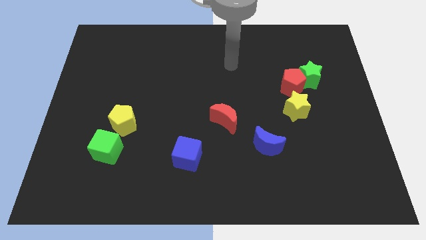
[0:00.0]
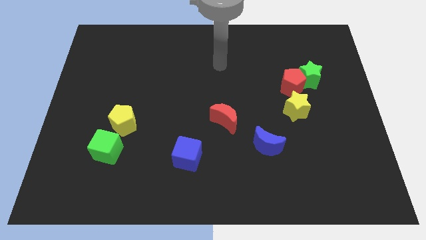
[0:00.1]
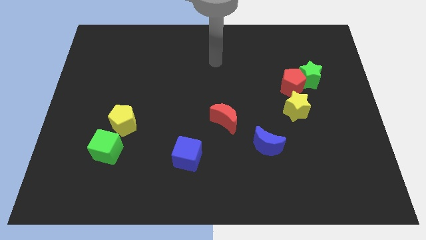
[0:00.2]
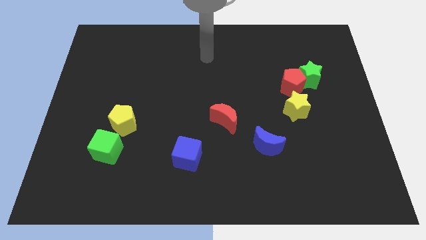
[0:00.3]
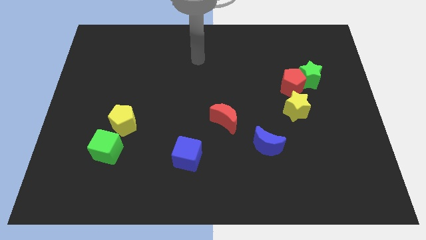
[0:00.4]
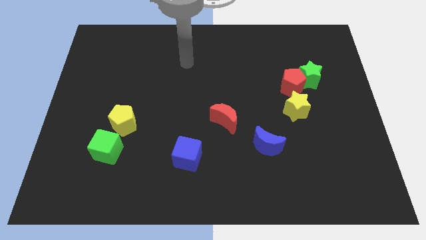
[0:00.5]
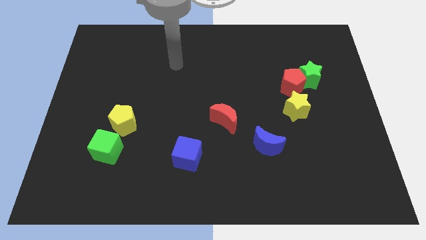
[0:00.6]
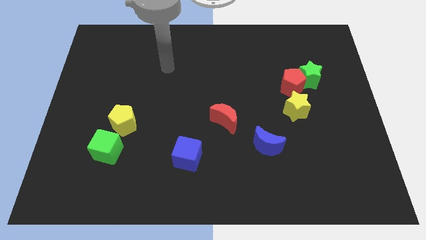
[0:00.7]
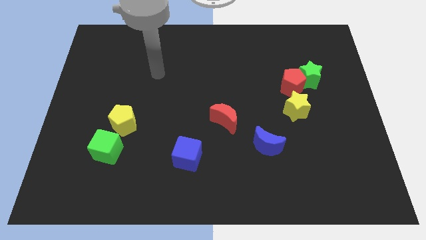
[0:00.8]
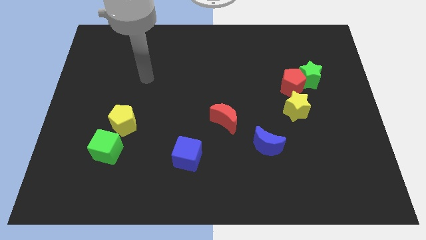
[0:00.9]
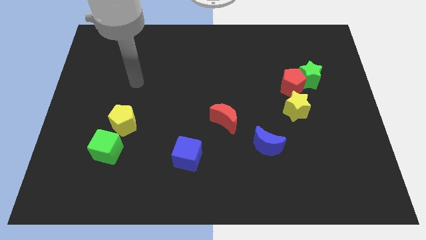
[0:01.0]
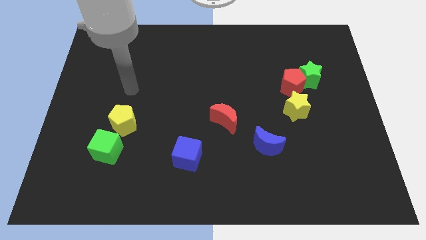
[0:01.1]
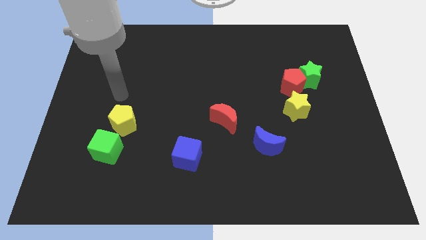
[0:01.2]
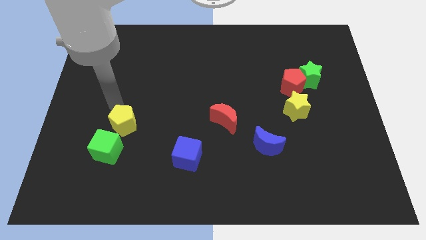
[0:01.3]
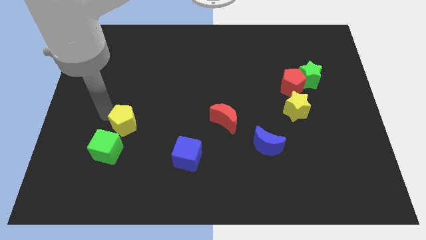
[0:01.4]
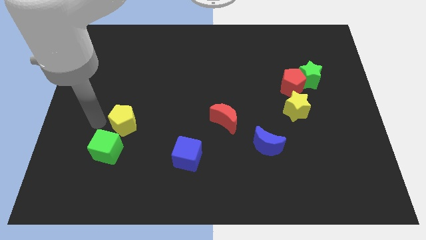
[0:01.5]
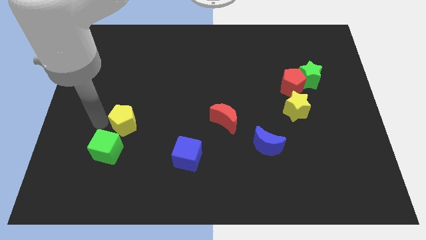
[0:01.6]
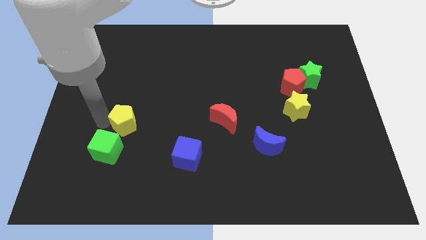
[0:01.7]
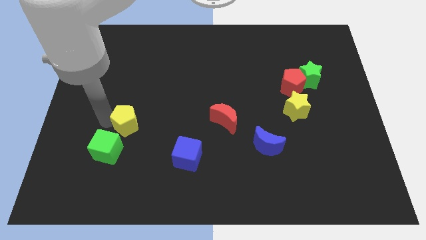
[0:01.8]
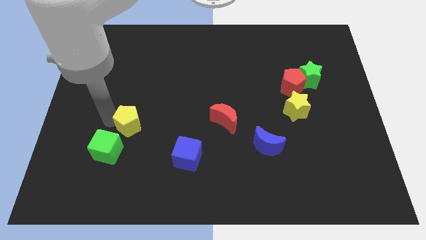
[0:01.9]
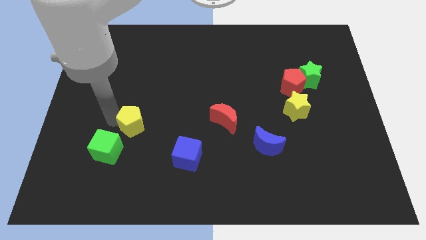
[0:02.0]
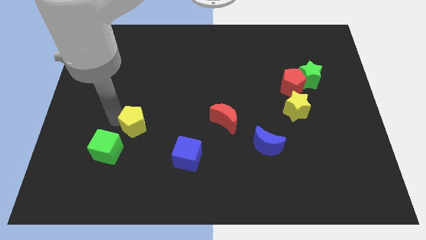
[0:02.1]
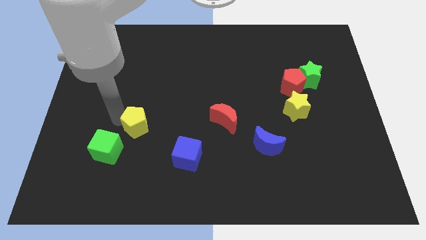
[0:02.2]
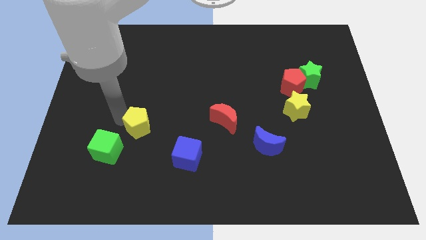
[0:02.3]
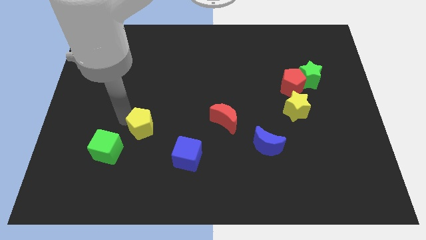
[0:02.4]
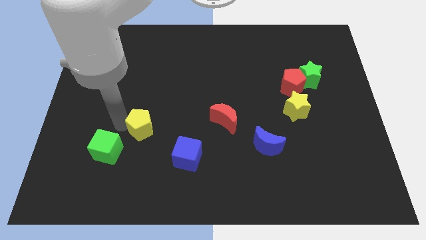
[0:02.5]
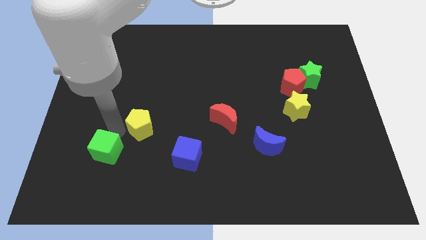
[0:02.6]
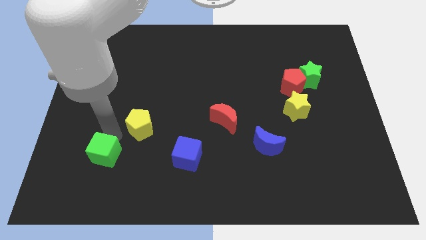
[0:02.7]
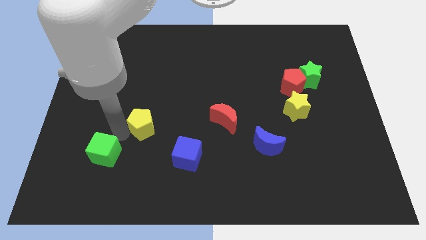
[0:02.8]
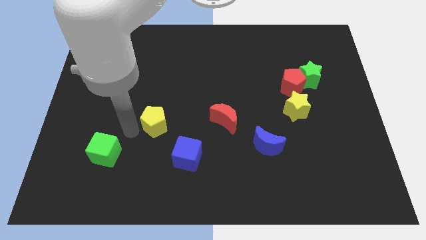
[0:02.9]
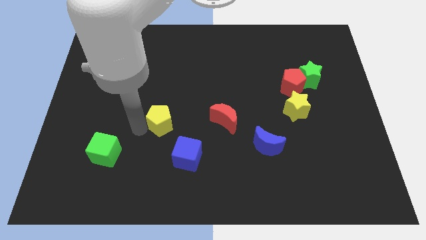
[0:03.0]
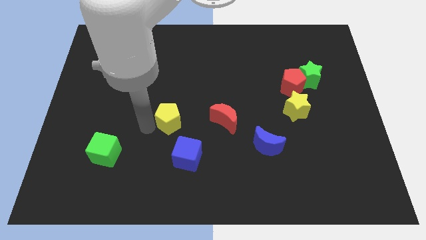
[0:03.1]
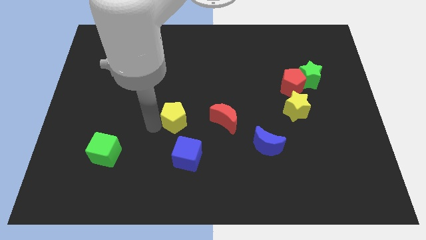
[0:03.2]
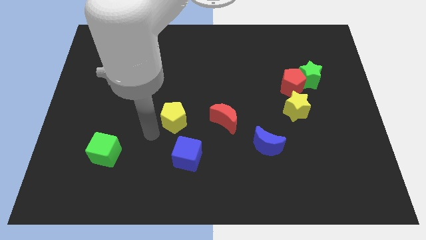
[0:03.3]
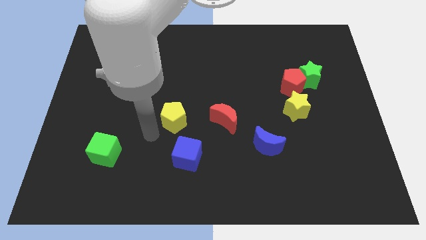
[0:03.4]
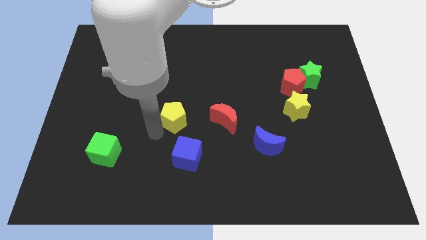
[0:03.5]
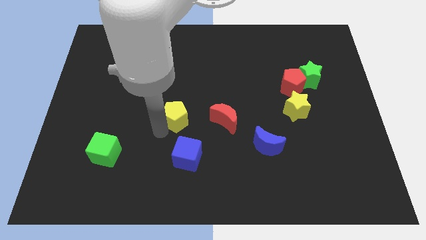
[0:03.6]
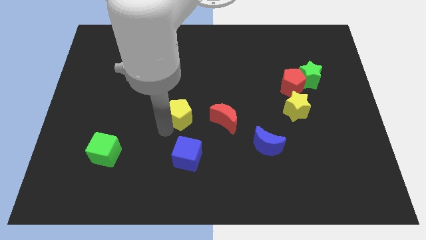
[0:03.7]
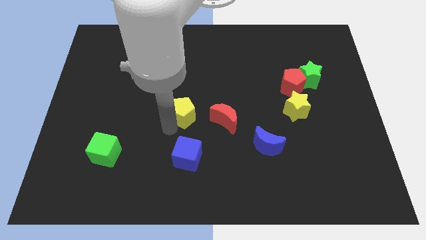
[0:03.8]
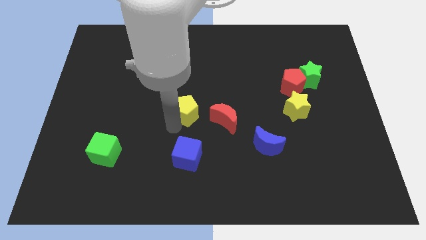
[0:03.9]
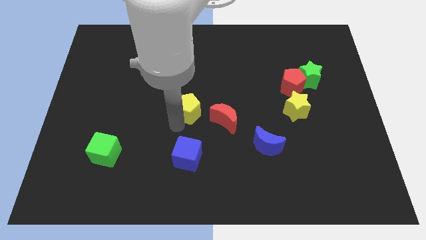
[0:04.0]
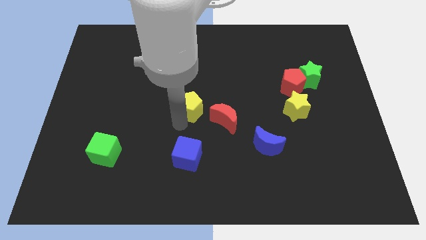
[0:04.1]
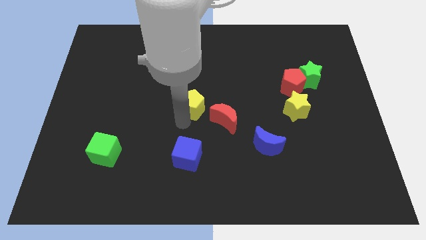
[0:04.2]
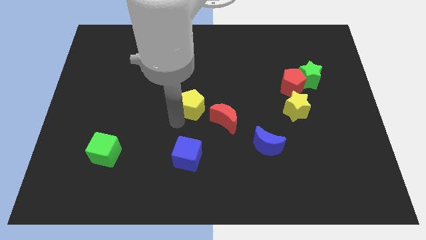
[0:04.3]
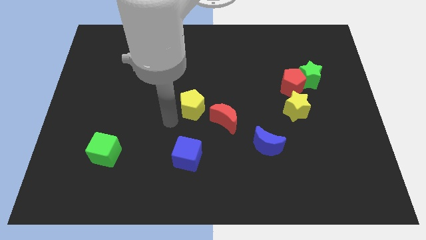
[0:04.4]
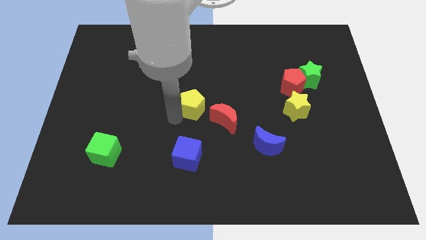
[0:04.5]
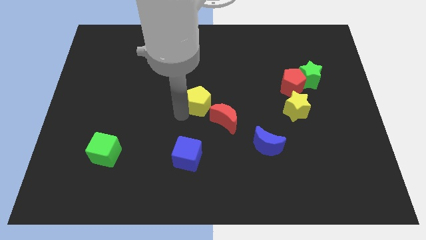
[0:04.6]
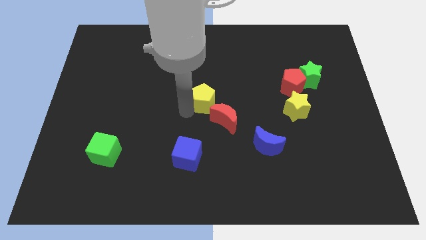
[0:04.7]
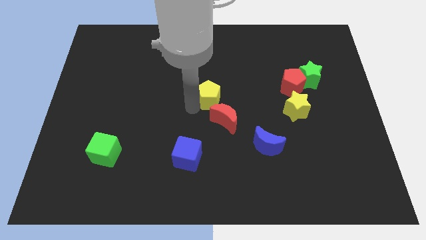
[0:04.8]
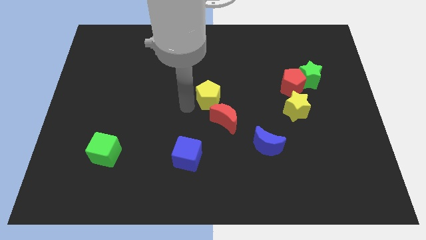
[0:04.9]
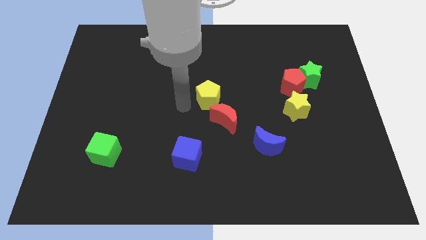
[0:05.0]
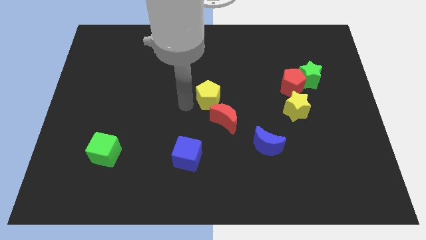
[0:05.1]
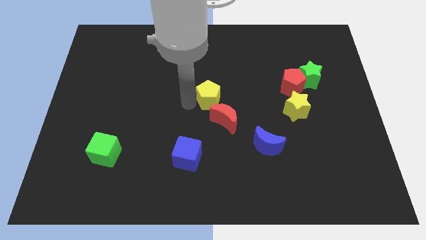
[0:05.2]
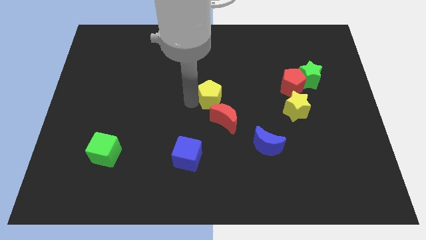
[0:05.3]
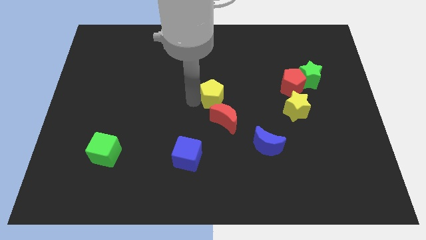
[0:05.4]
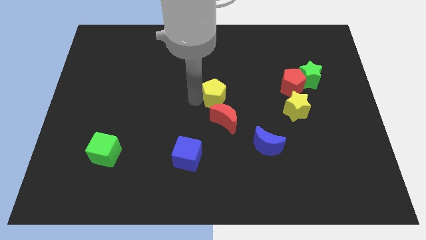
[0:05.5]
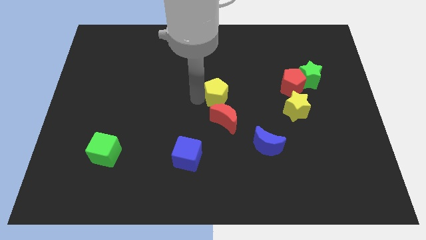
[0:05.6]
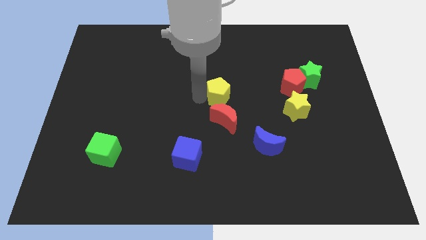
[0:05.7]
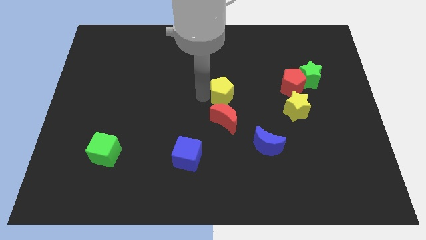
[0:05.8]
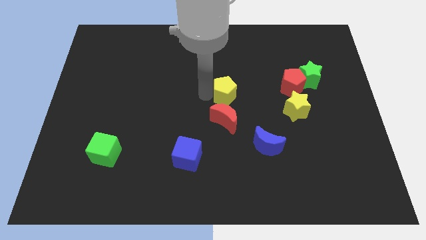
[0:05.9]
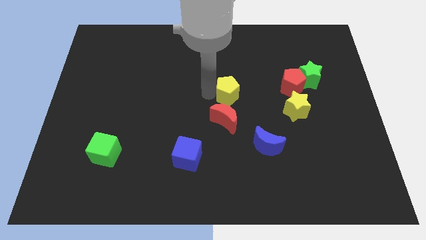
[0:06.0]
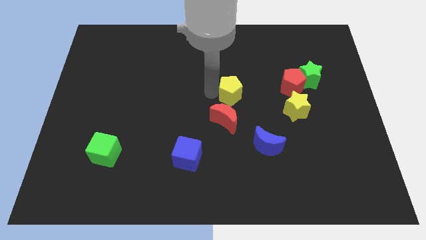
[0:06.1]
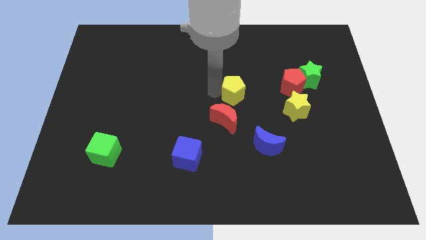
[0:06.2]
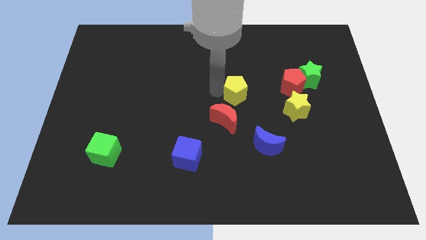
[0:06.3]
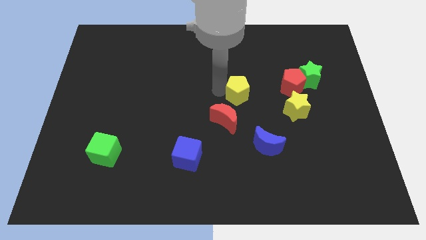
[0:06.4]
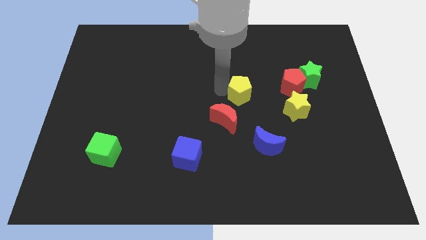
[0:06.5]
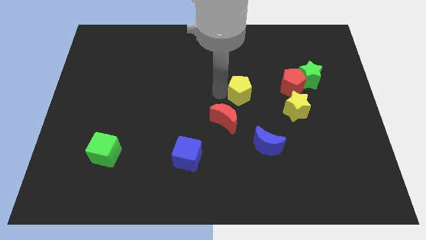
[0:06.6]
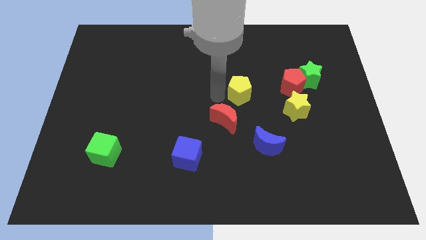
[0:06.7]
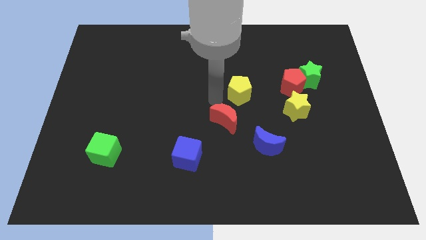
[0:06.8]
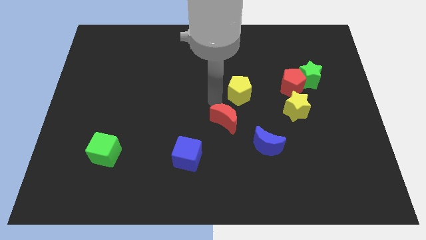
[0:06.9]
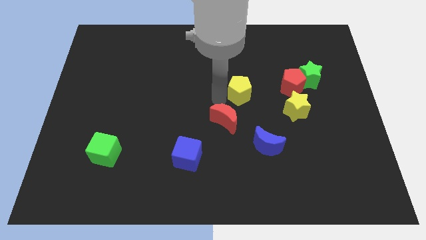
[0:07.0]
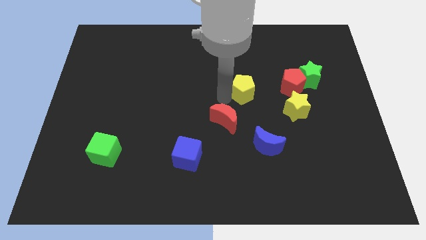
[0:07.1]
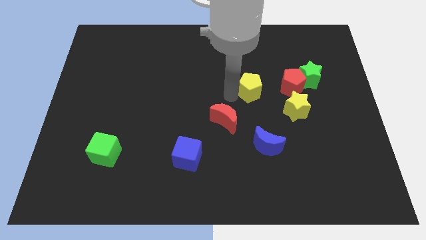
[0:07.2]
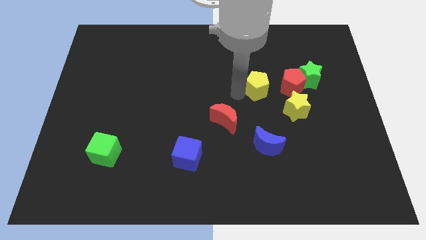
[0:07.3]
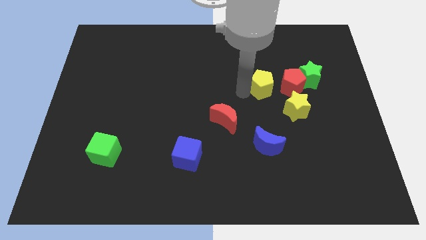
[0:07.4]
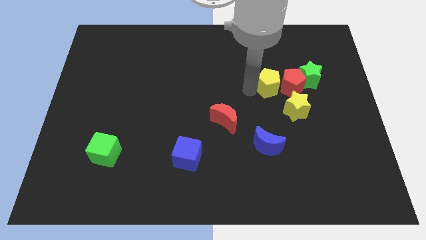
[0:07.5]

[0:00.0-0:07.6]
push the yellow pentagon to the red pentagon
